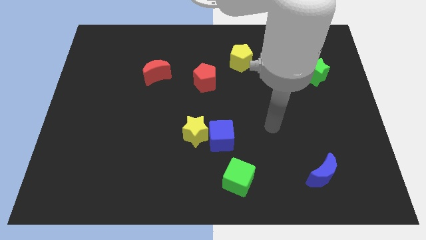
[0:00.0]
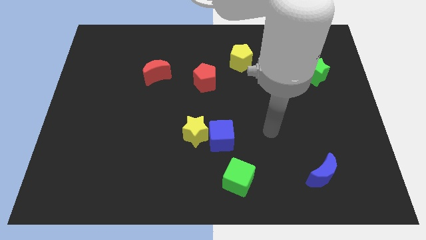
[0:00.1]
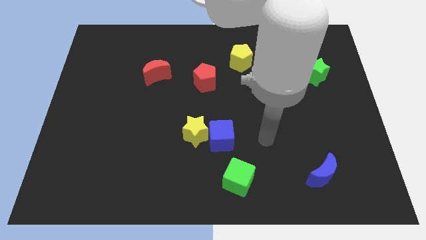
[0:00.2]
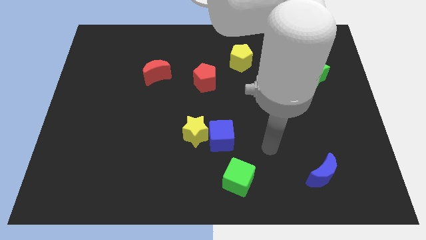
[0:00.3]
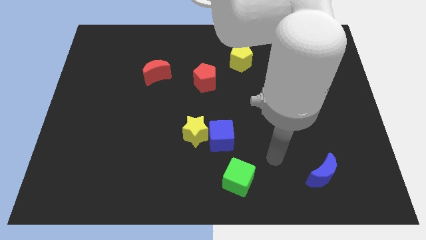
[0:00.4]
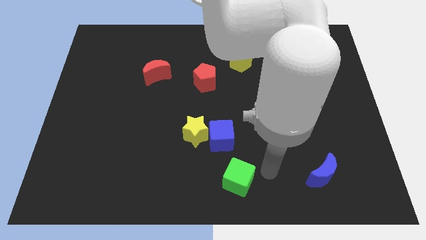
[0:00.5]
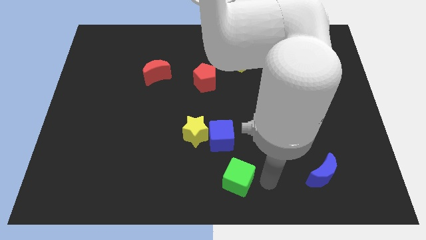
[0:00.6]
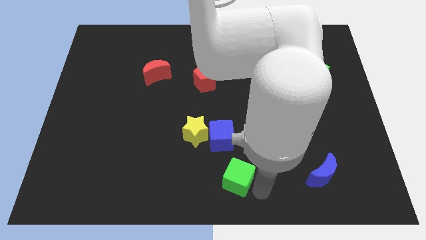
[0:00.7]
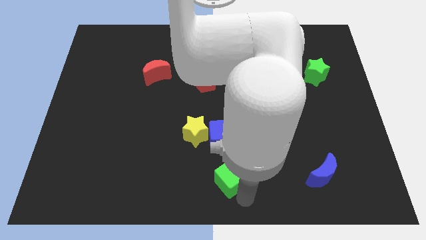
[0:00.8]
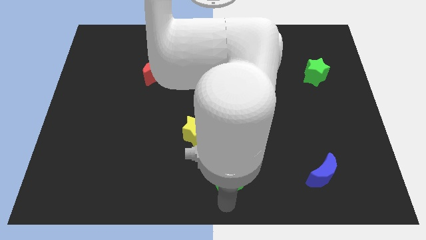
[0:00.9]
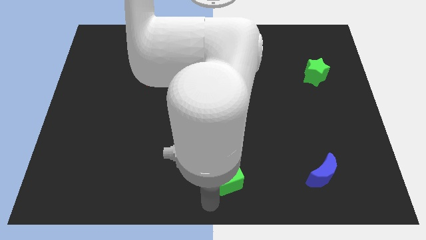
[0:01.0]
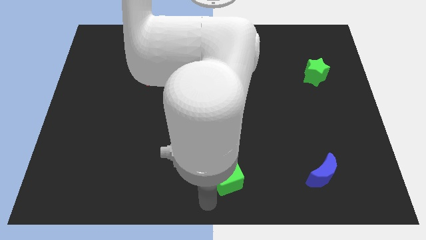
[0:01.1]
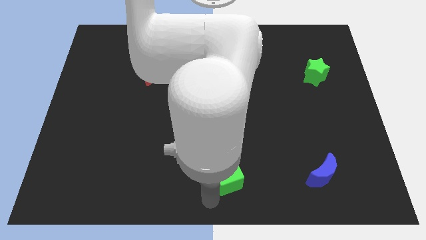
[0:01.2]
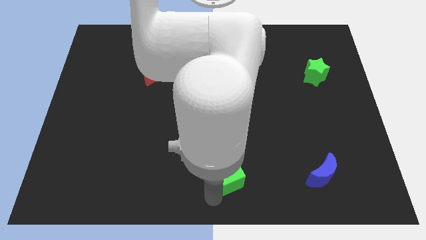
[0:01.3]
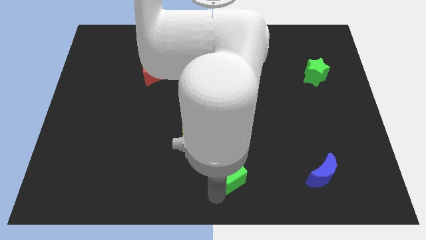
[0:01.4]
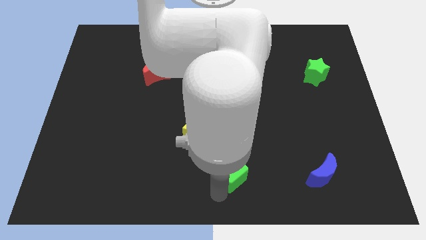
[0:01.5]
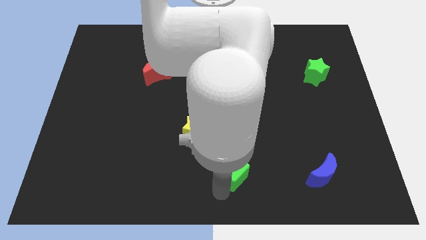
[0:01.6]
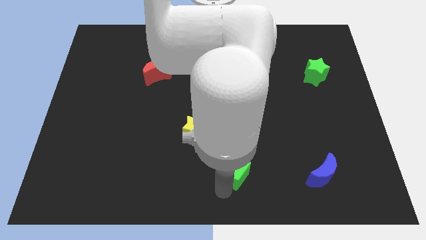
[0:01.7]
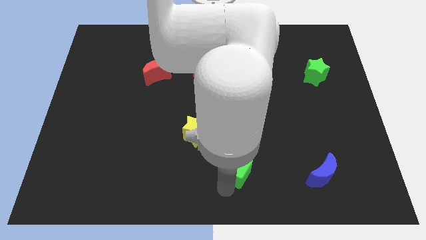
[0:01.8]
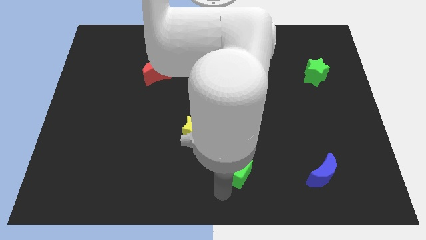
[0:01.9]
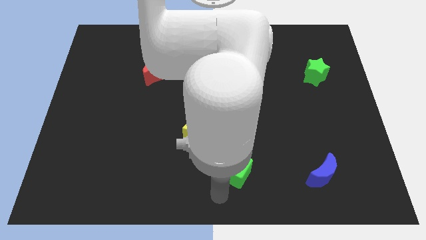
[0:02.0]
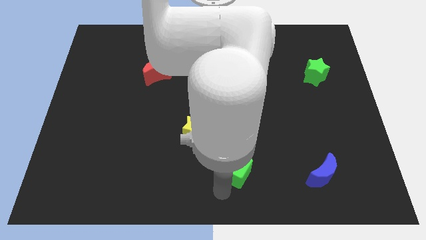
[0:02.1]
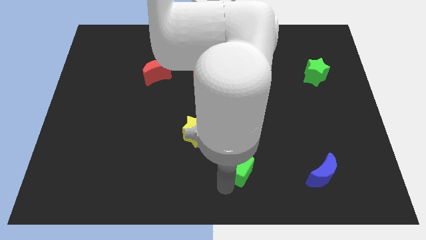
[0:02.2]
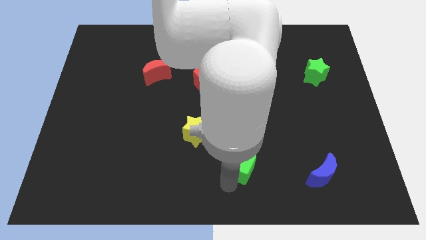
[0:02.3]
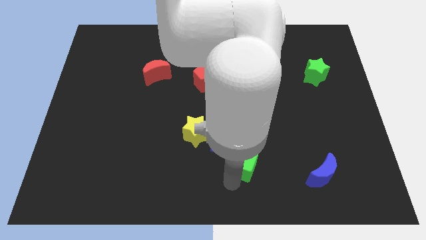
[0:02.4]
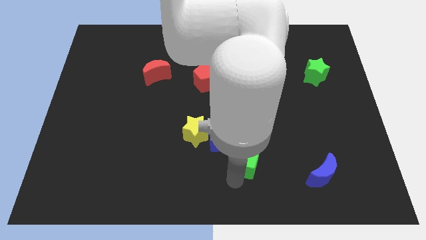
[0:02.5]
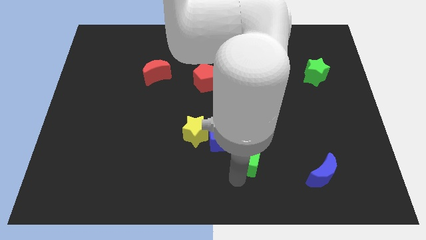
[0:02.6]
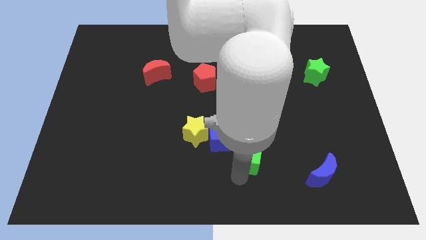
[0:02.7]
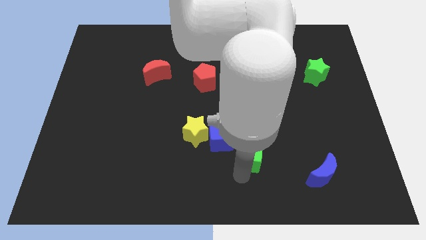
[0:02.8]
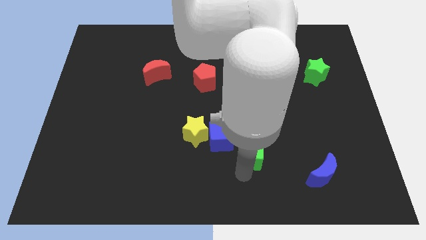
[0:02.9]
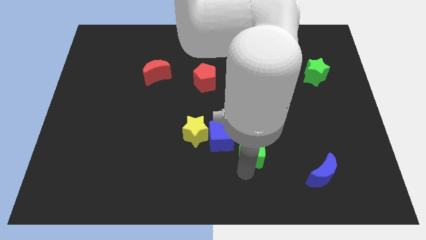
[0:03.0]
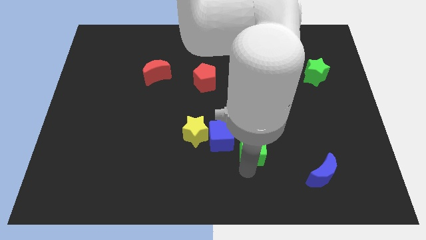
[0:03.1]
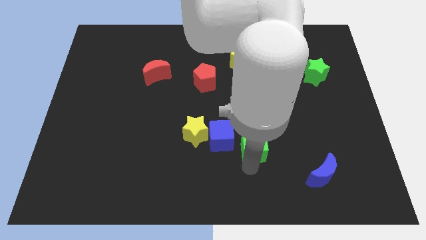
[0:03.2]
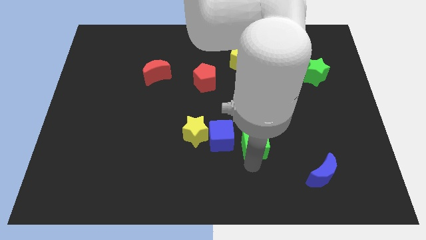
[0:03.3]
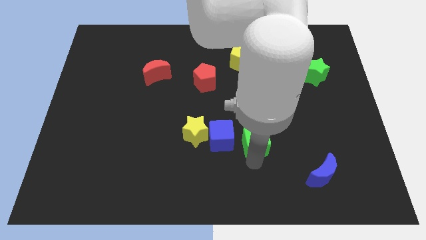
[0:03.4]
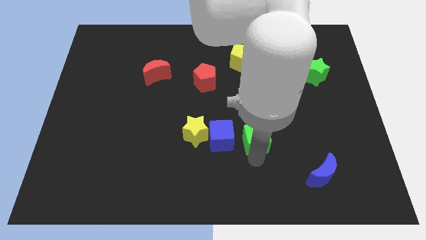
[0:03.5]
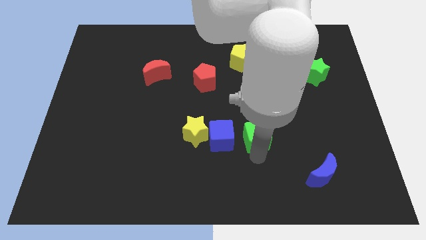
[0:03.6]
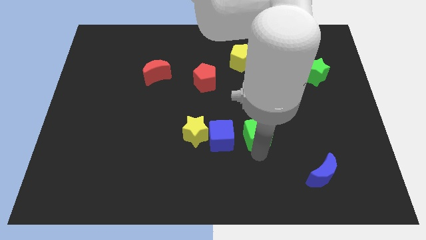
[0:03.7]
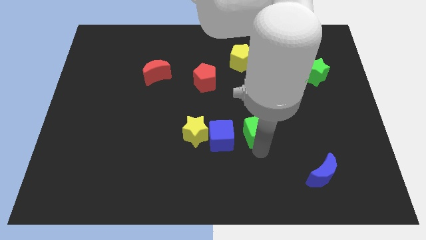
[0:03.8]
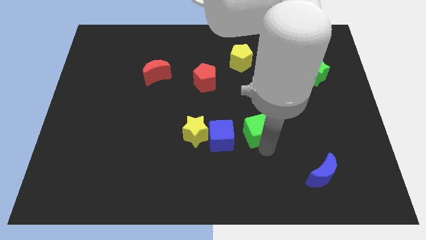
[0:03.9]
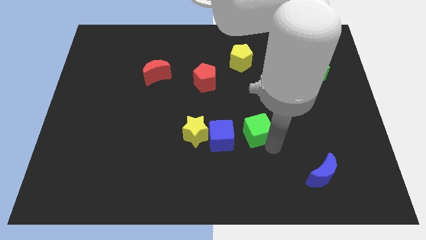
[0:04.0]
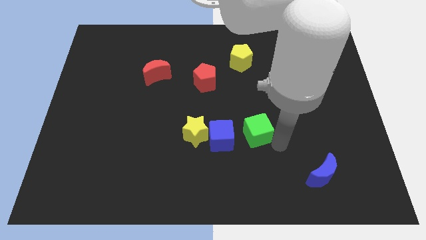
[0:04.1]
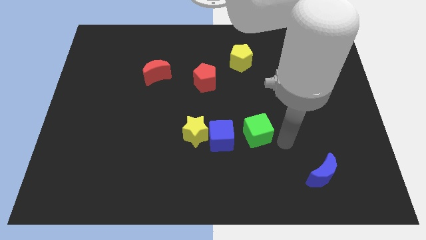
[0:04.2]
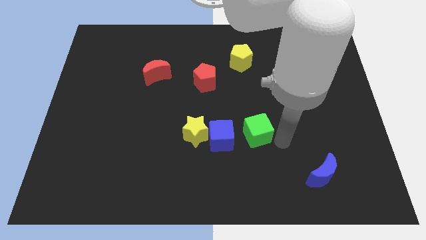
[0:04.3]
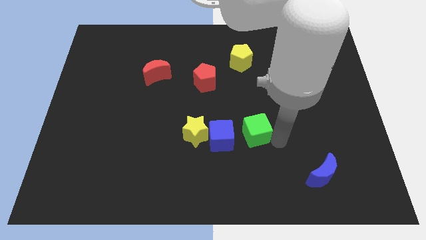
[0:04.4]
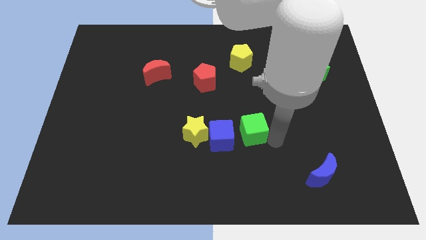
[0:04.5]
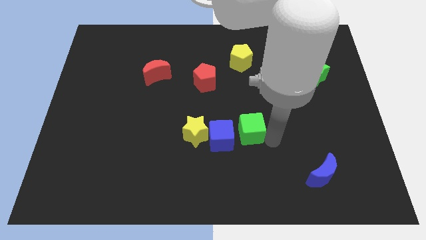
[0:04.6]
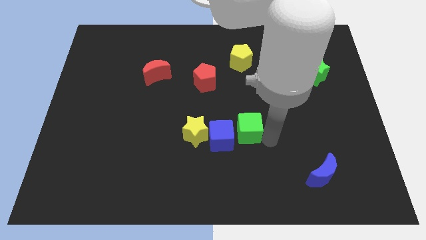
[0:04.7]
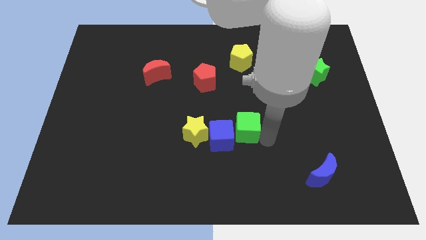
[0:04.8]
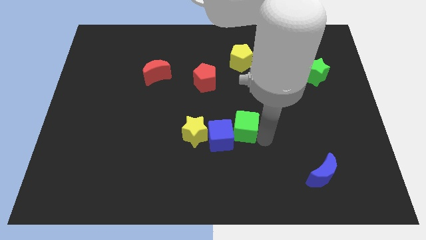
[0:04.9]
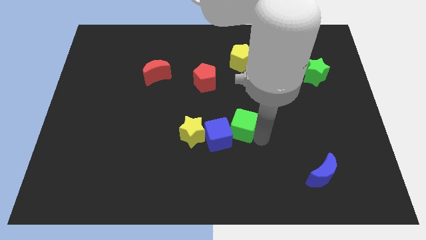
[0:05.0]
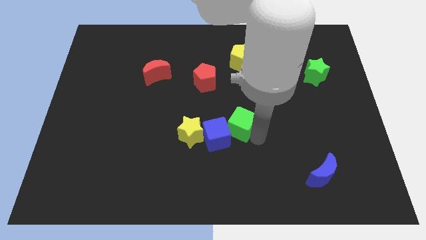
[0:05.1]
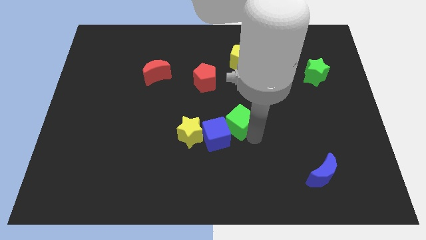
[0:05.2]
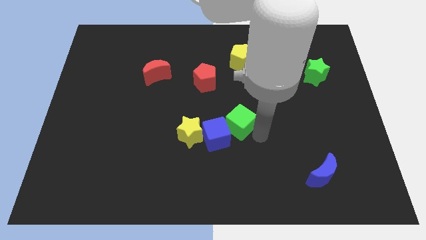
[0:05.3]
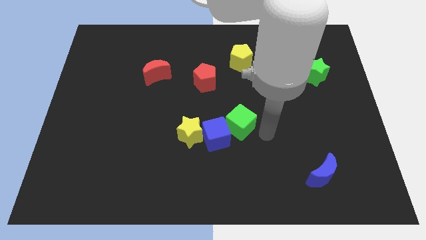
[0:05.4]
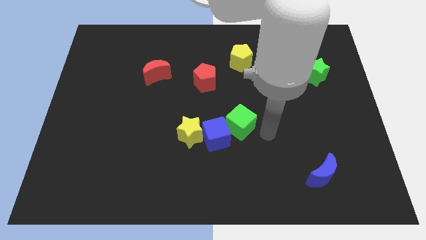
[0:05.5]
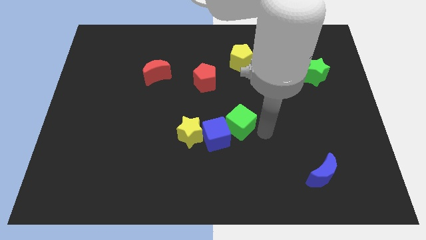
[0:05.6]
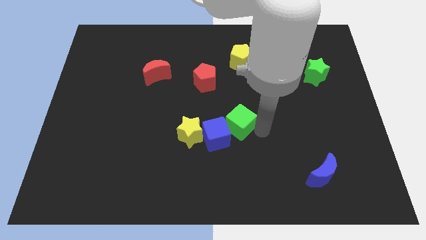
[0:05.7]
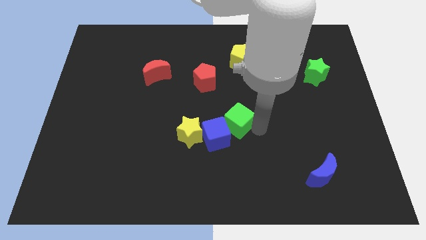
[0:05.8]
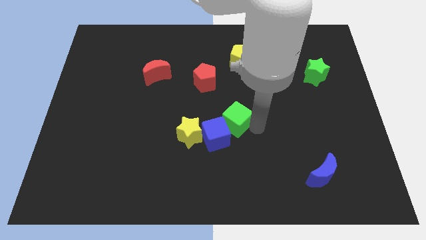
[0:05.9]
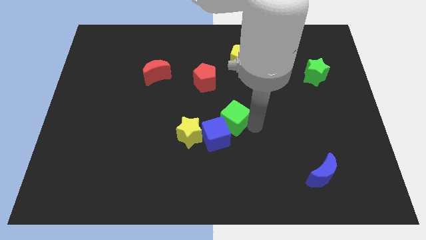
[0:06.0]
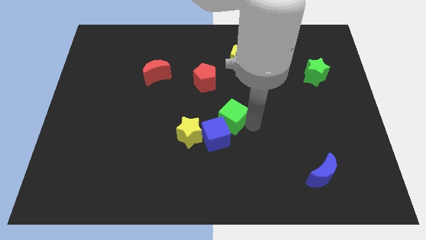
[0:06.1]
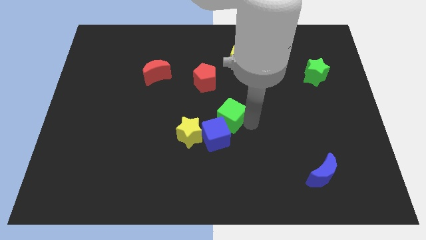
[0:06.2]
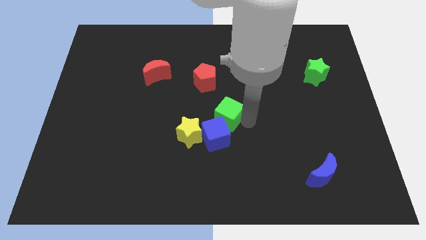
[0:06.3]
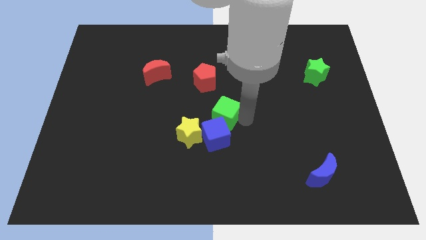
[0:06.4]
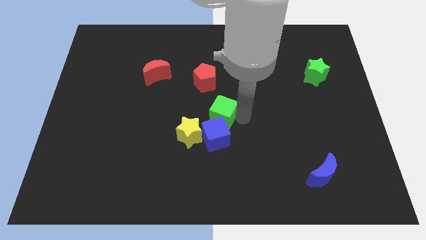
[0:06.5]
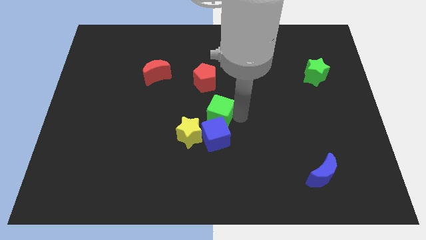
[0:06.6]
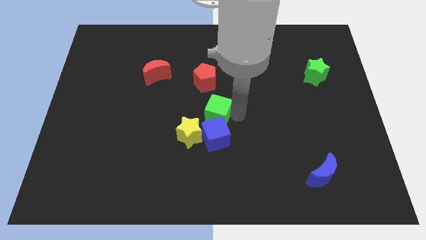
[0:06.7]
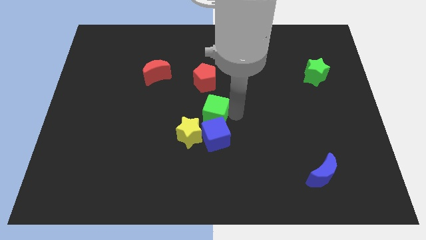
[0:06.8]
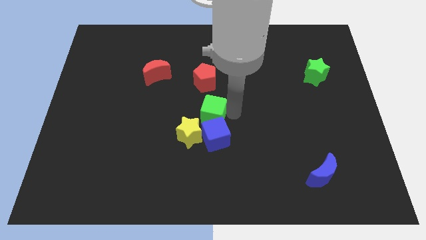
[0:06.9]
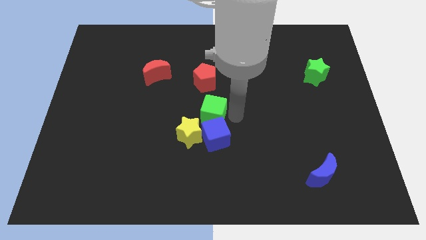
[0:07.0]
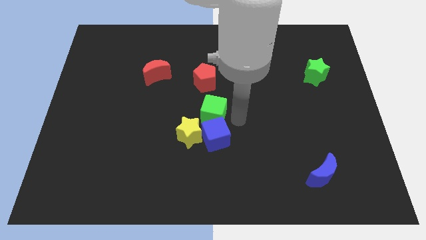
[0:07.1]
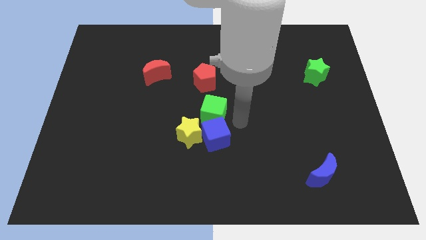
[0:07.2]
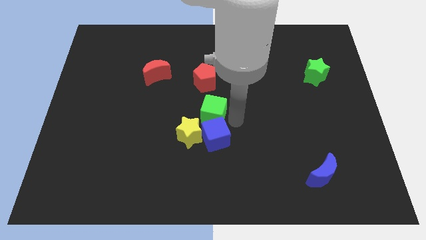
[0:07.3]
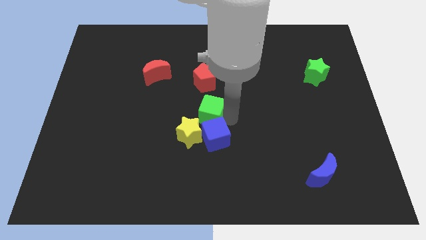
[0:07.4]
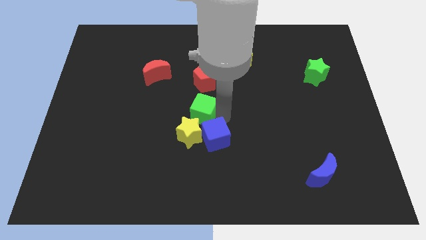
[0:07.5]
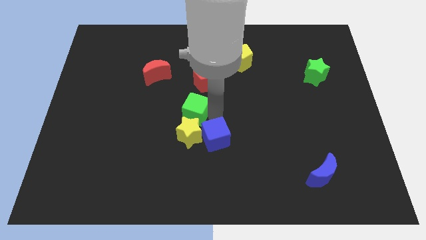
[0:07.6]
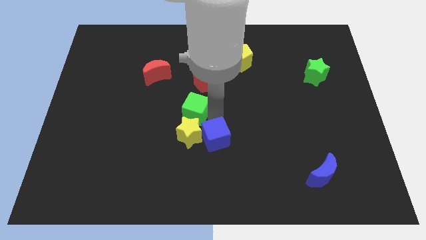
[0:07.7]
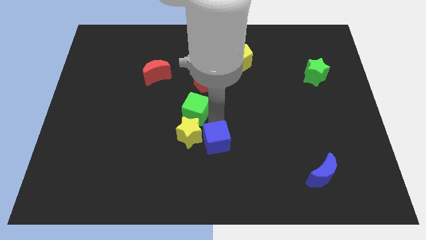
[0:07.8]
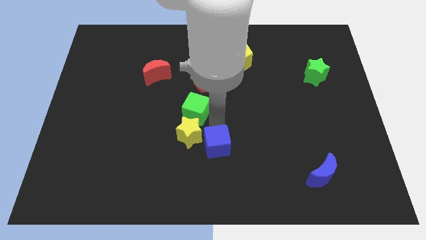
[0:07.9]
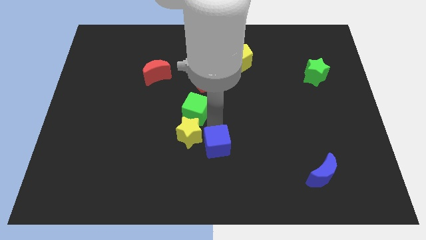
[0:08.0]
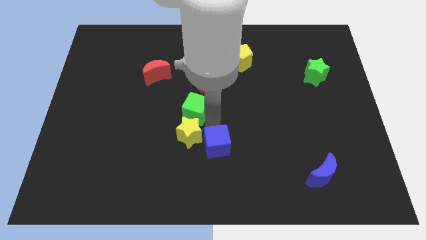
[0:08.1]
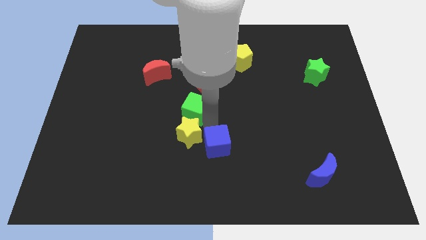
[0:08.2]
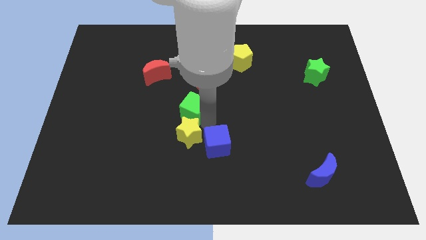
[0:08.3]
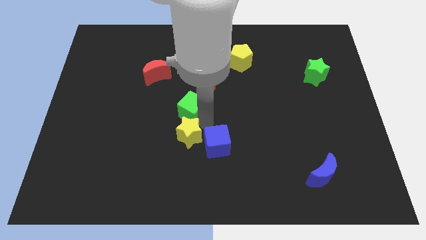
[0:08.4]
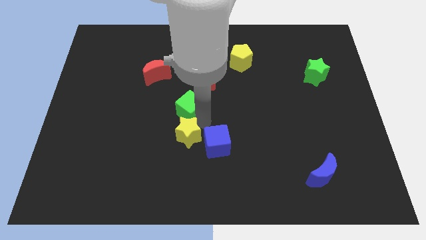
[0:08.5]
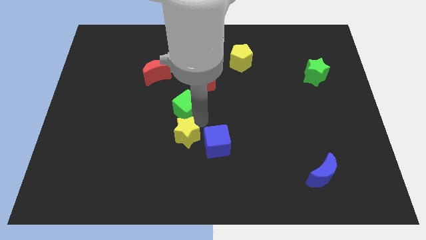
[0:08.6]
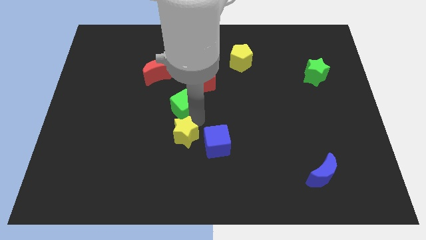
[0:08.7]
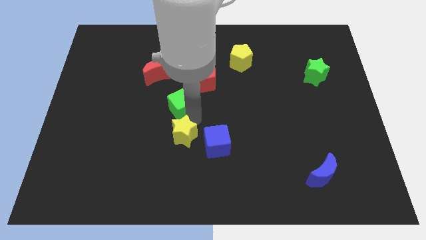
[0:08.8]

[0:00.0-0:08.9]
push the green cube to the bottom right of the red moon
